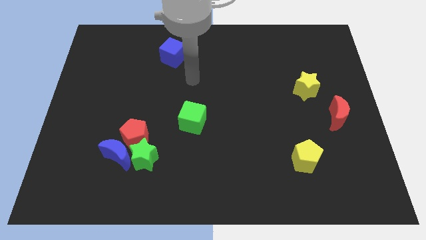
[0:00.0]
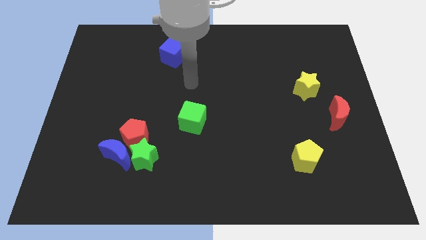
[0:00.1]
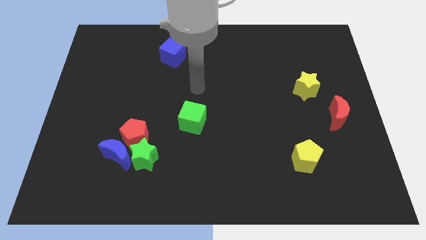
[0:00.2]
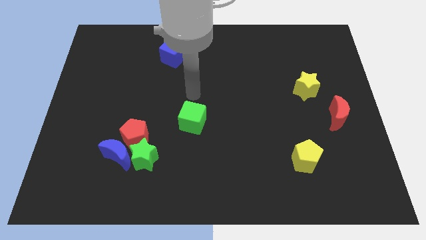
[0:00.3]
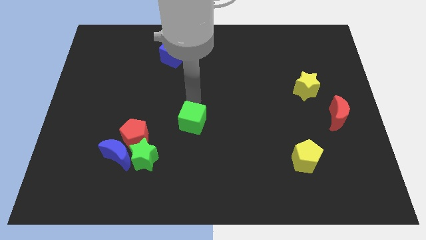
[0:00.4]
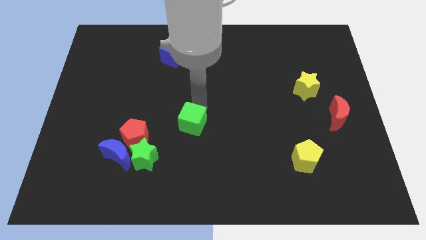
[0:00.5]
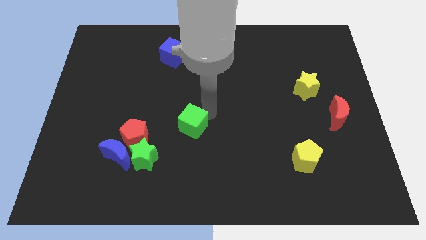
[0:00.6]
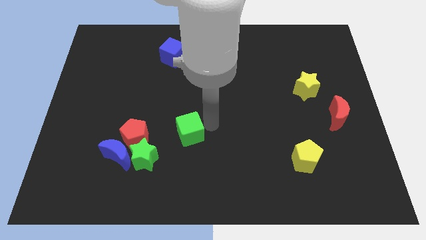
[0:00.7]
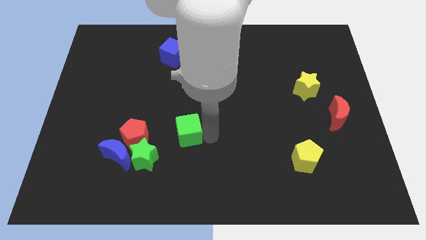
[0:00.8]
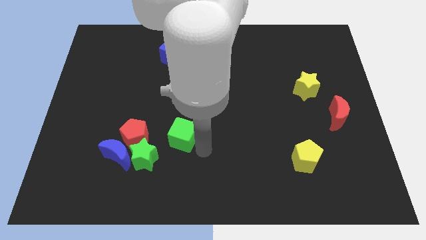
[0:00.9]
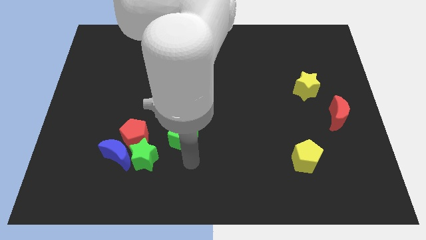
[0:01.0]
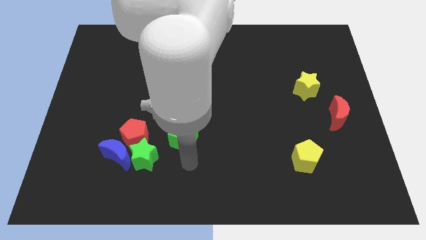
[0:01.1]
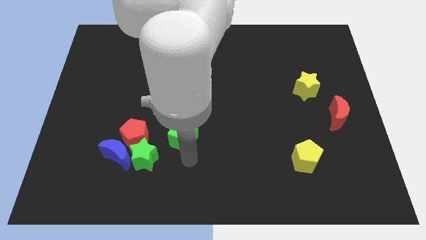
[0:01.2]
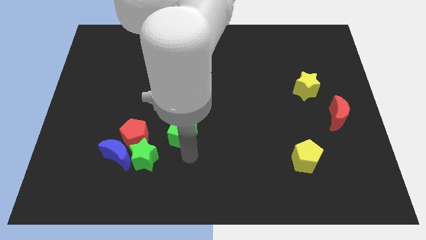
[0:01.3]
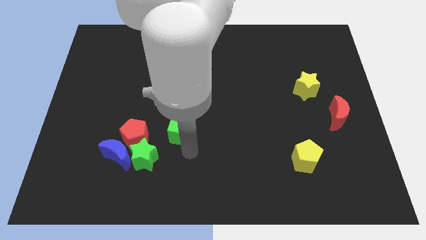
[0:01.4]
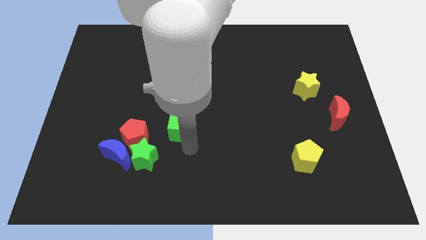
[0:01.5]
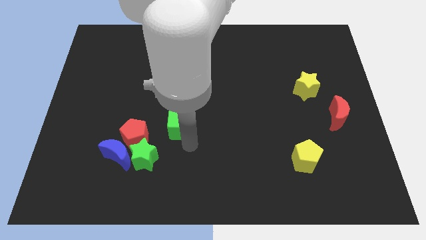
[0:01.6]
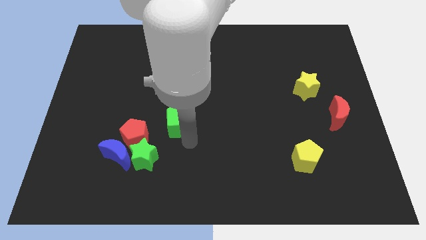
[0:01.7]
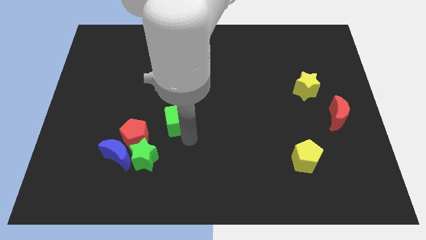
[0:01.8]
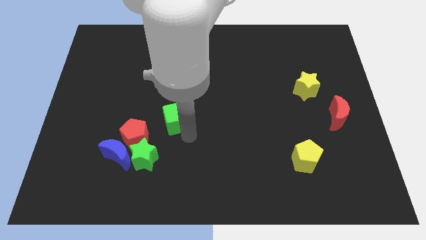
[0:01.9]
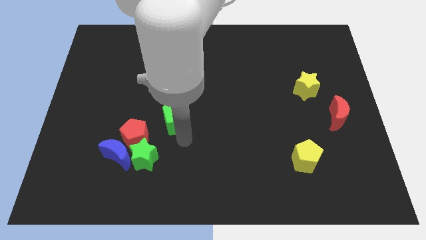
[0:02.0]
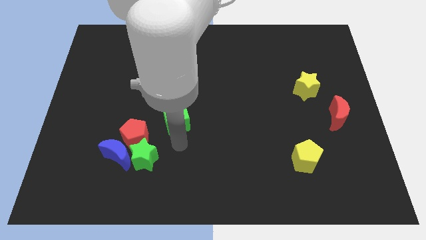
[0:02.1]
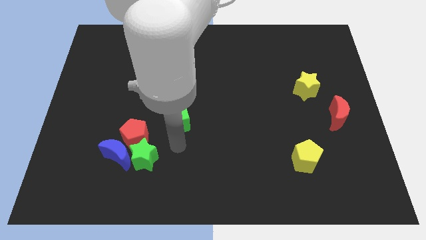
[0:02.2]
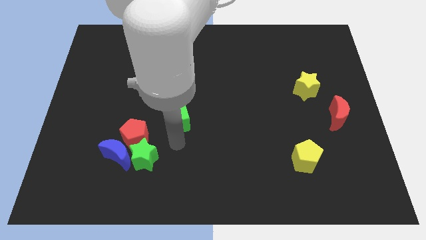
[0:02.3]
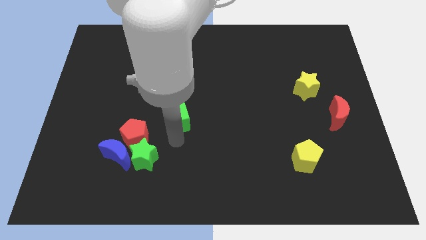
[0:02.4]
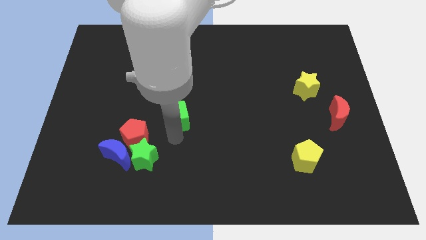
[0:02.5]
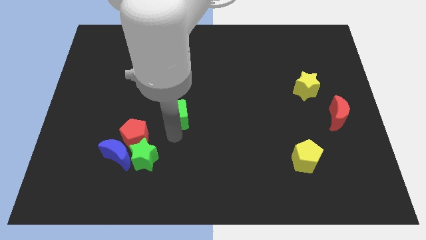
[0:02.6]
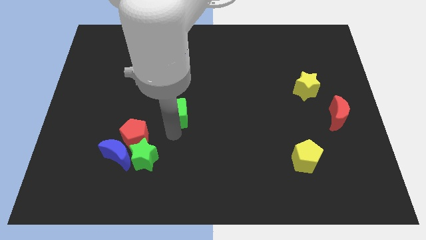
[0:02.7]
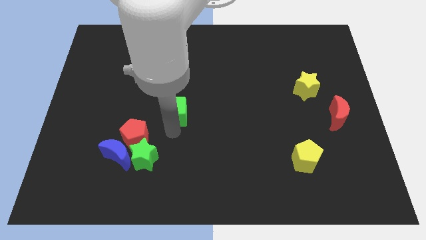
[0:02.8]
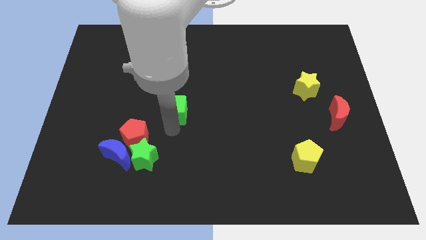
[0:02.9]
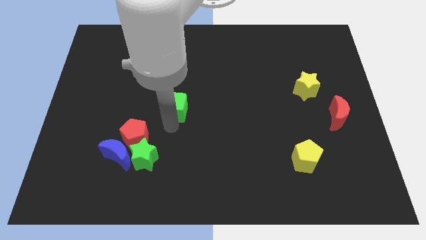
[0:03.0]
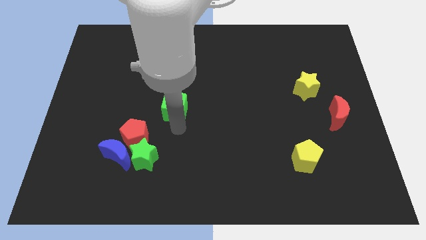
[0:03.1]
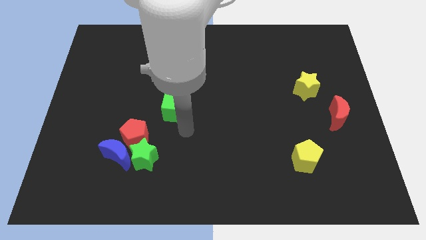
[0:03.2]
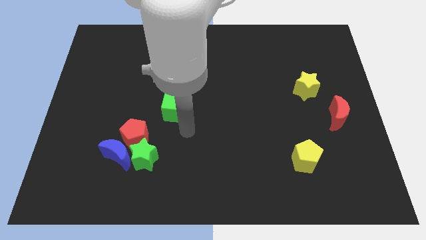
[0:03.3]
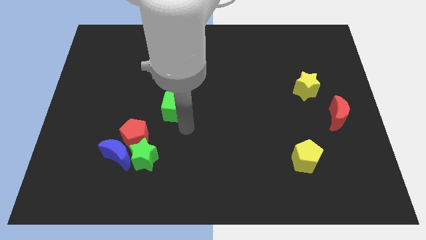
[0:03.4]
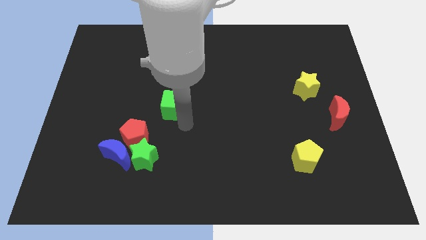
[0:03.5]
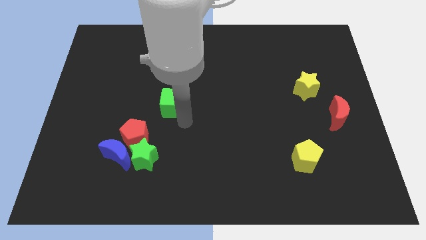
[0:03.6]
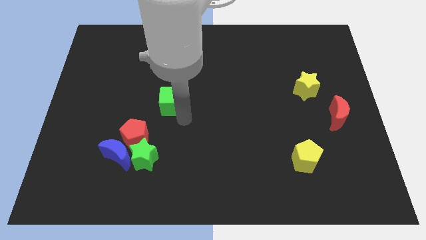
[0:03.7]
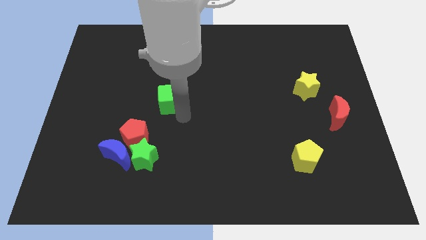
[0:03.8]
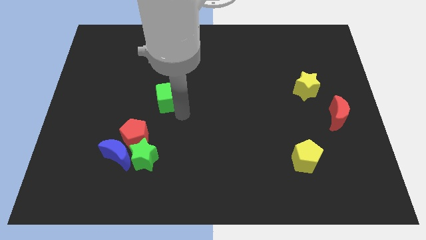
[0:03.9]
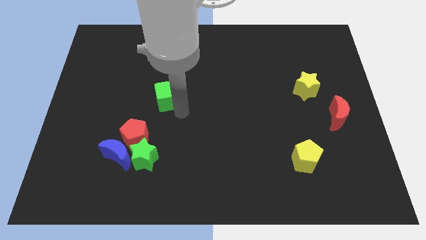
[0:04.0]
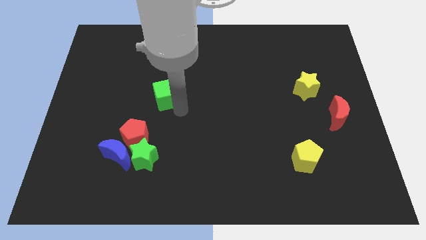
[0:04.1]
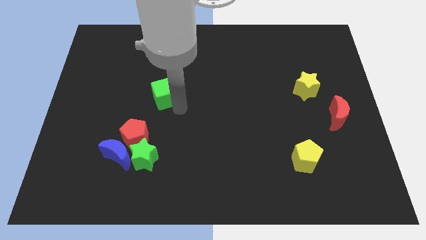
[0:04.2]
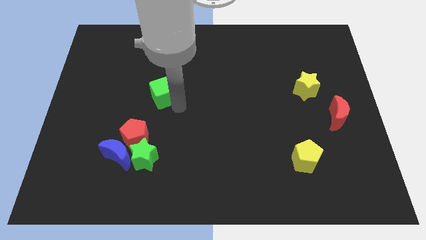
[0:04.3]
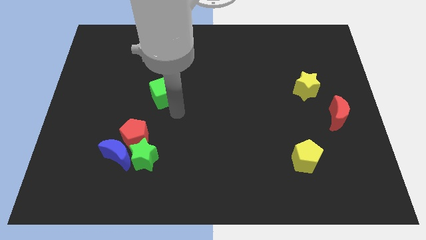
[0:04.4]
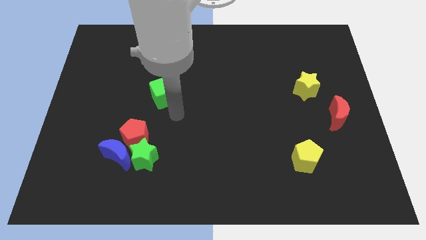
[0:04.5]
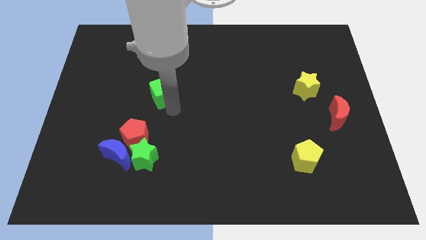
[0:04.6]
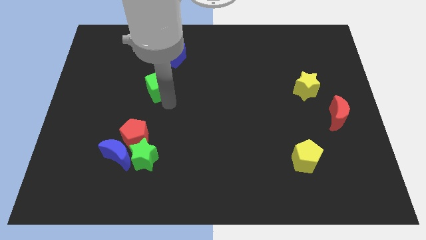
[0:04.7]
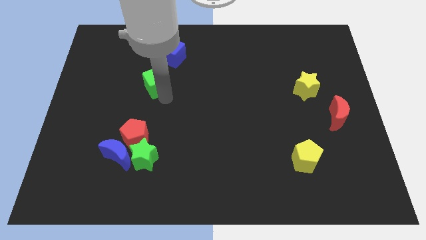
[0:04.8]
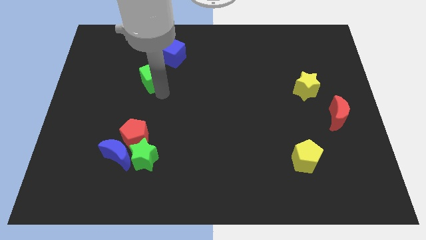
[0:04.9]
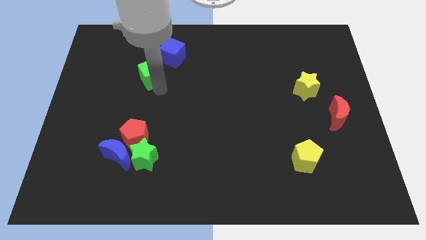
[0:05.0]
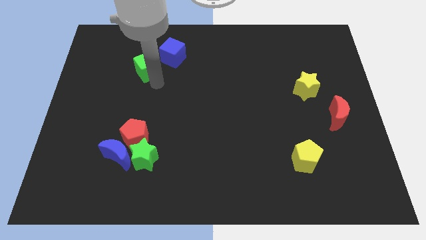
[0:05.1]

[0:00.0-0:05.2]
push the green cube left of the blue cube

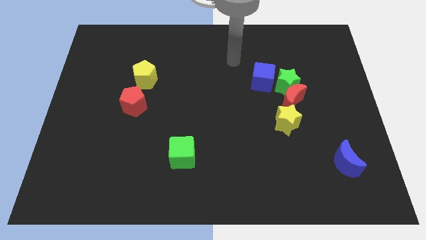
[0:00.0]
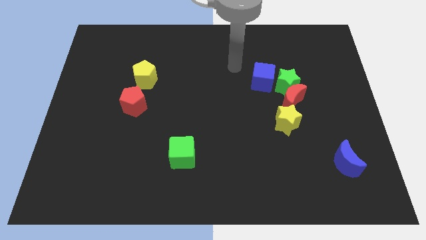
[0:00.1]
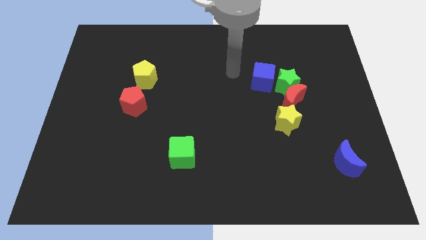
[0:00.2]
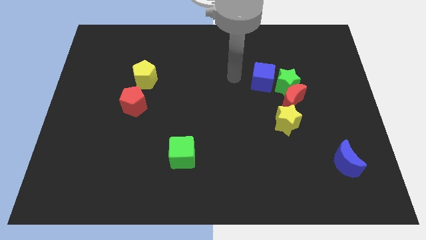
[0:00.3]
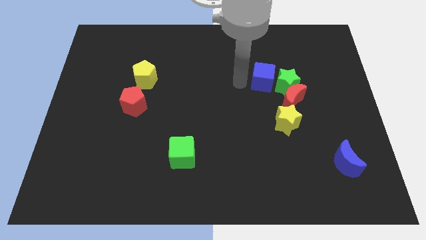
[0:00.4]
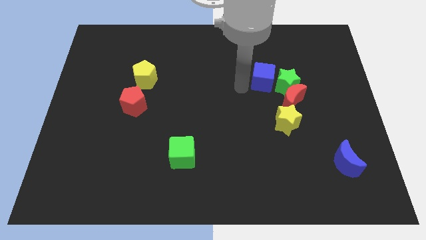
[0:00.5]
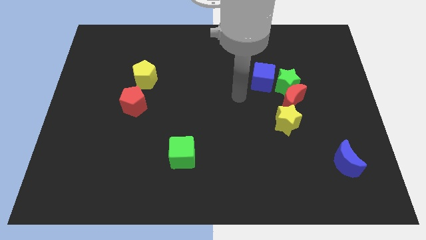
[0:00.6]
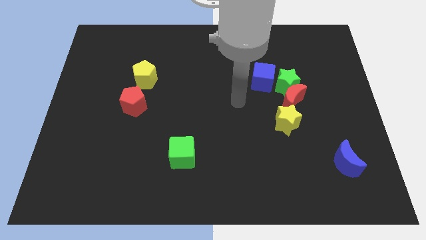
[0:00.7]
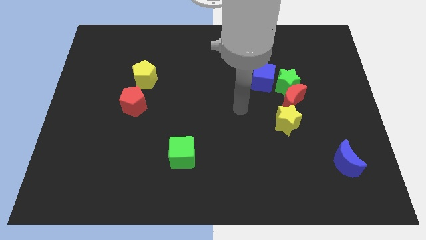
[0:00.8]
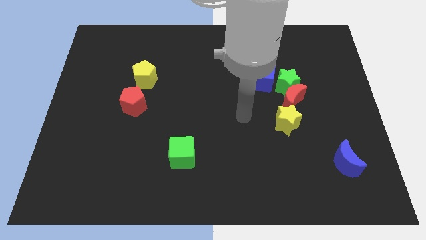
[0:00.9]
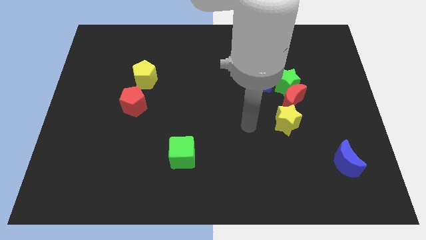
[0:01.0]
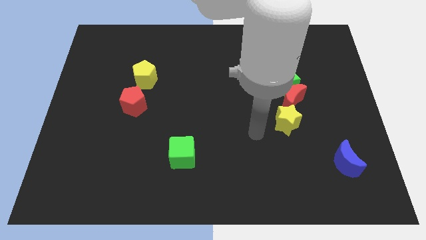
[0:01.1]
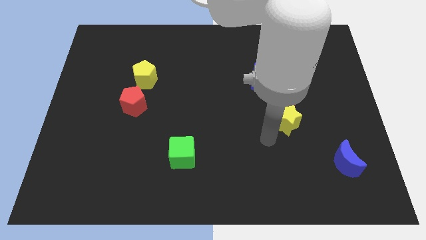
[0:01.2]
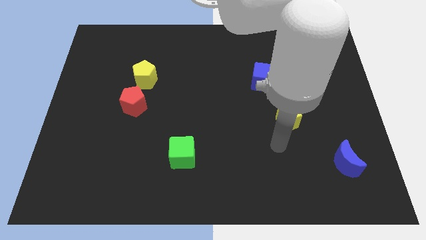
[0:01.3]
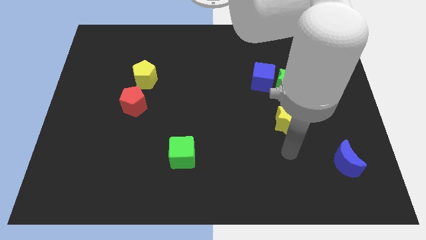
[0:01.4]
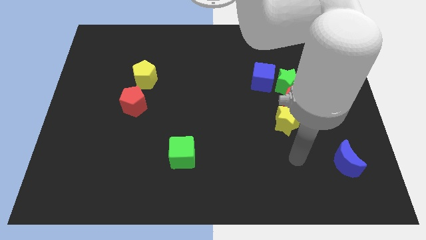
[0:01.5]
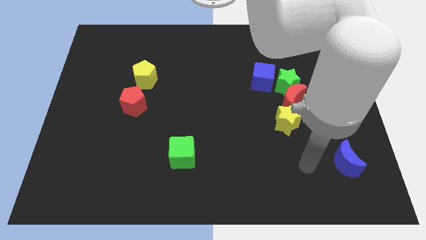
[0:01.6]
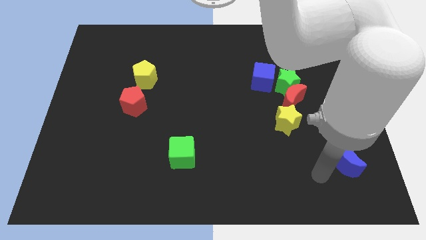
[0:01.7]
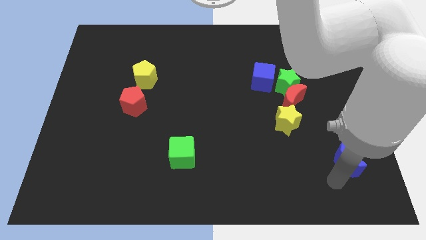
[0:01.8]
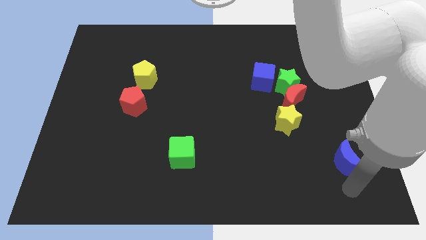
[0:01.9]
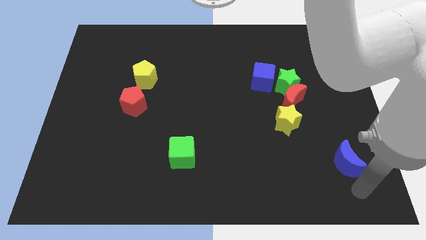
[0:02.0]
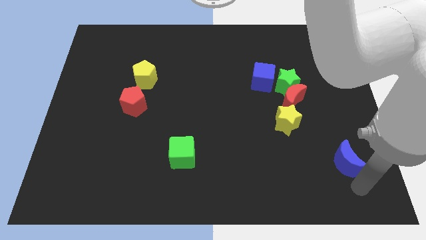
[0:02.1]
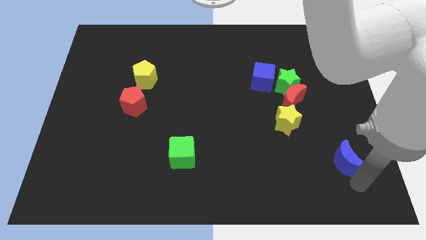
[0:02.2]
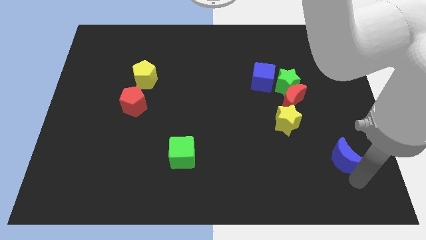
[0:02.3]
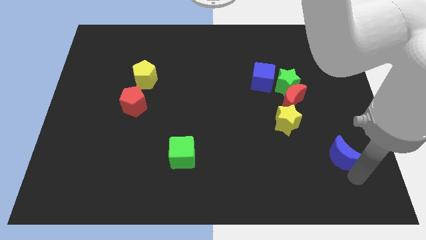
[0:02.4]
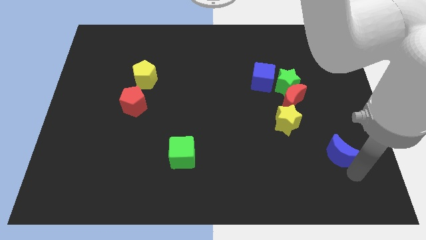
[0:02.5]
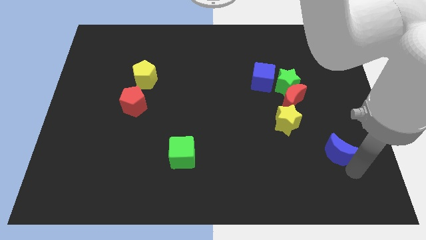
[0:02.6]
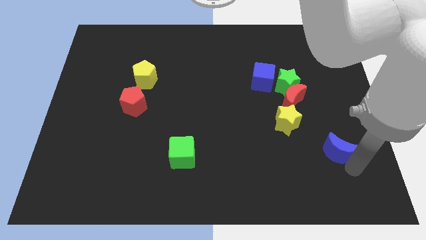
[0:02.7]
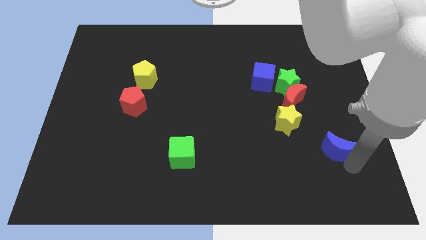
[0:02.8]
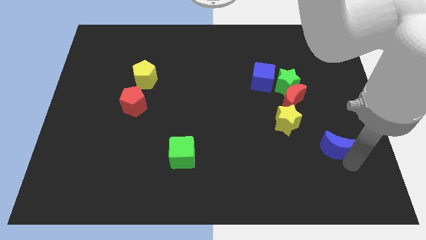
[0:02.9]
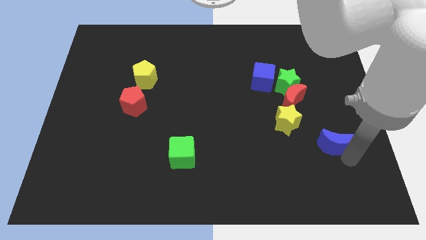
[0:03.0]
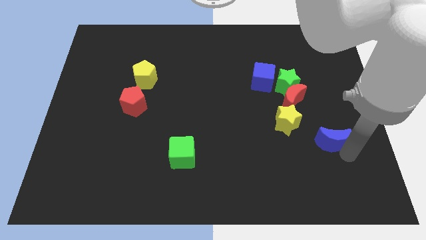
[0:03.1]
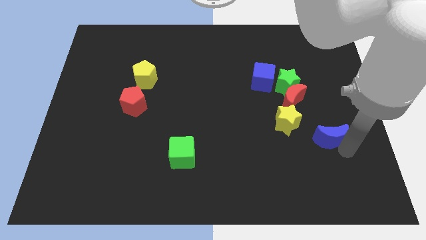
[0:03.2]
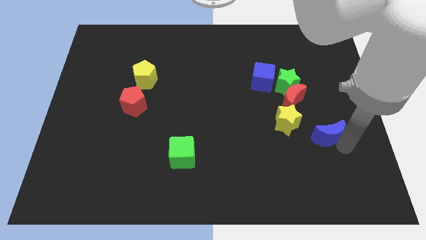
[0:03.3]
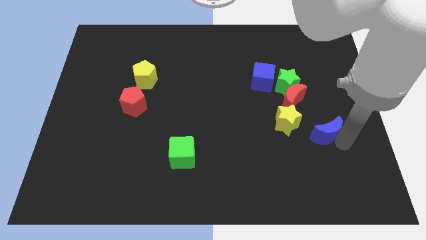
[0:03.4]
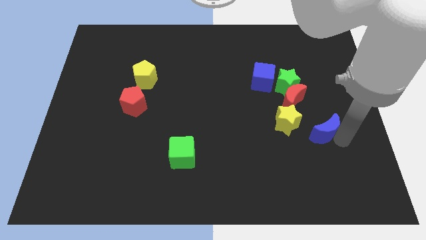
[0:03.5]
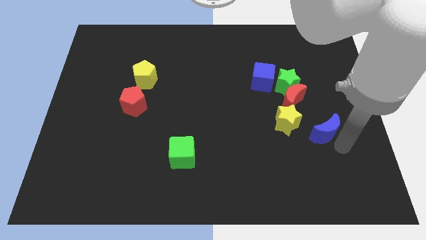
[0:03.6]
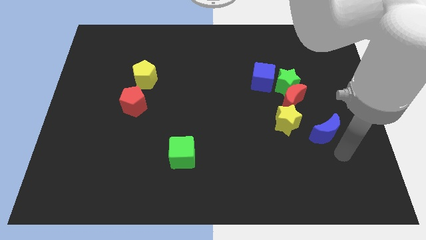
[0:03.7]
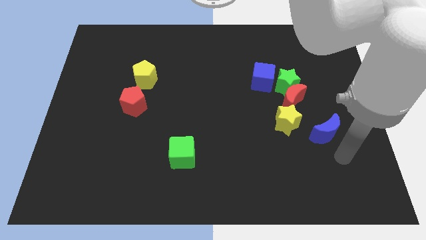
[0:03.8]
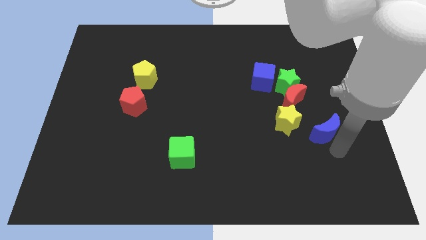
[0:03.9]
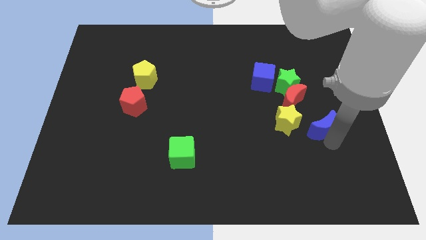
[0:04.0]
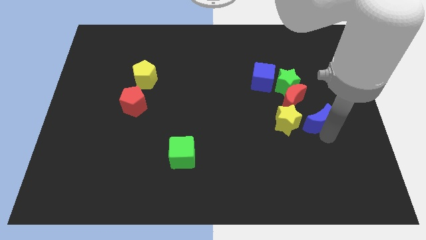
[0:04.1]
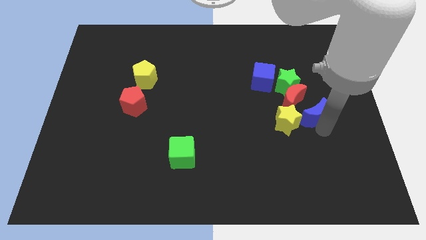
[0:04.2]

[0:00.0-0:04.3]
put the blue moon diagonally up and to the right of the yellow star
